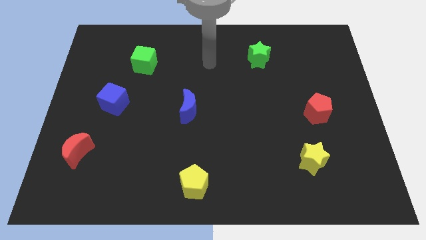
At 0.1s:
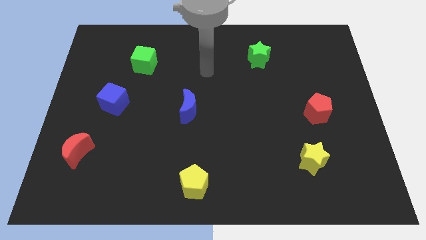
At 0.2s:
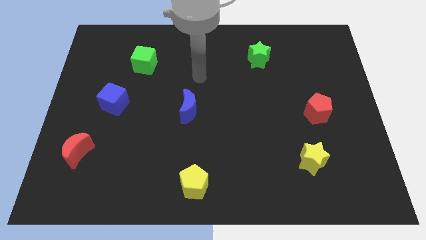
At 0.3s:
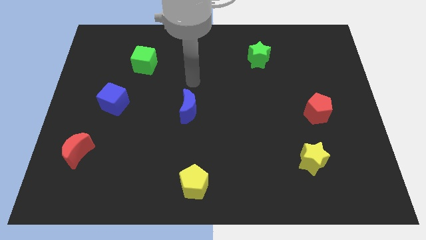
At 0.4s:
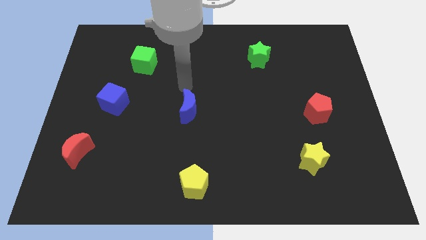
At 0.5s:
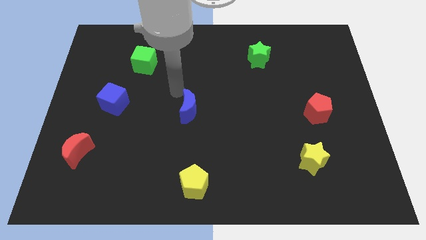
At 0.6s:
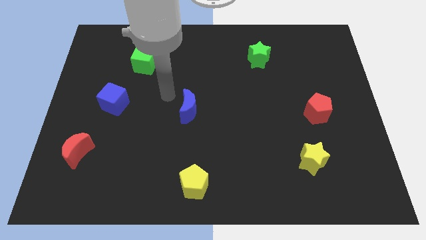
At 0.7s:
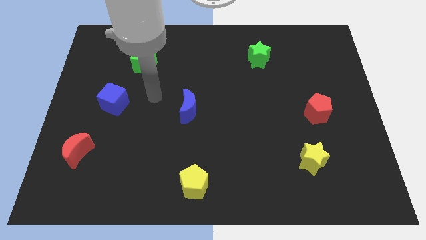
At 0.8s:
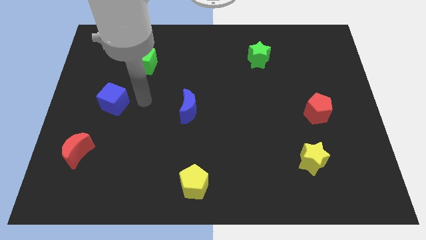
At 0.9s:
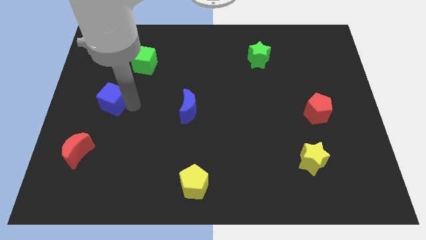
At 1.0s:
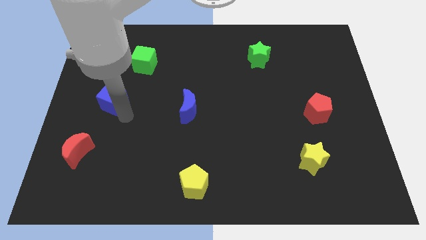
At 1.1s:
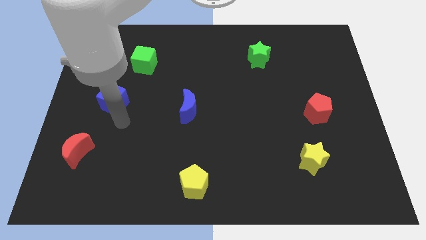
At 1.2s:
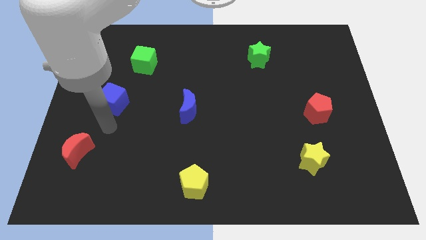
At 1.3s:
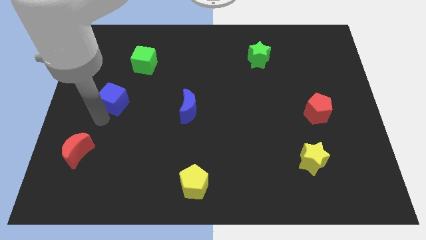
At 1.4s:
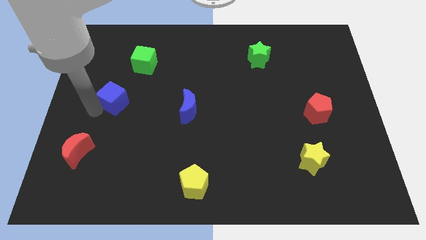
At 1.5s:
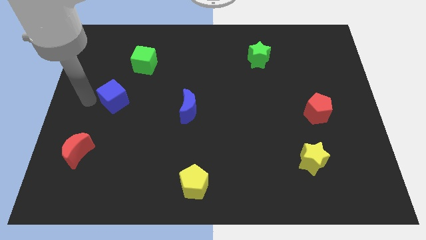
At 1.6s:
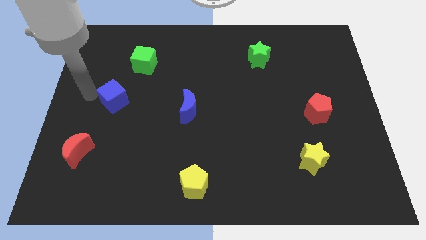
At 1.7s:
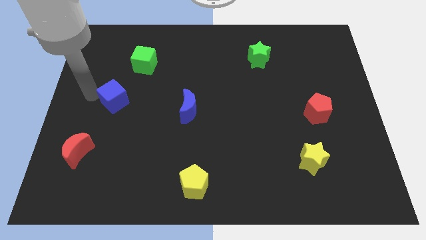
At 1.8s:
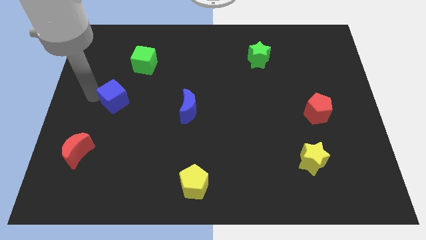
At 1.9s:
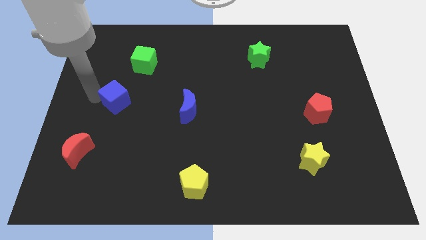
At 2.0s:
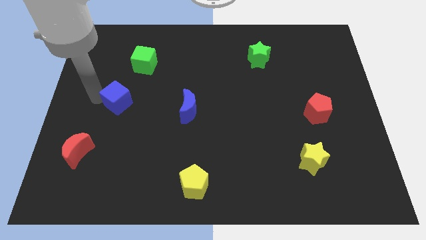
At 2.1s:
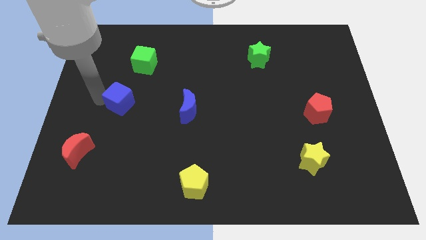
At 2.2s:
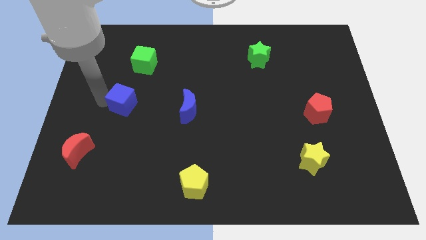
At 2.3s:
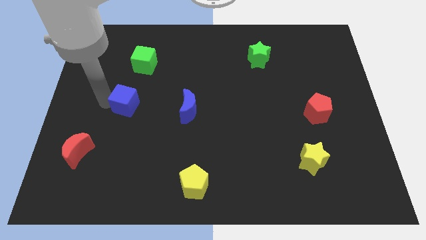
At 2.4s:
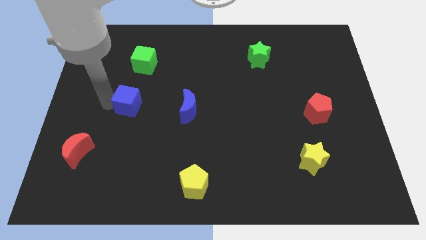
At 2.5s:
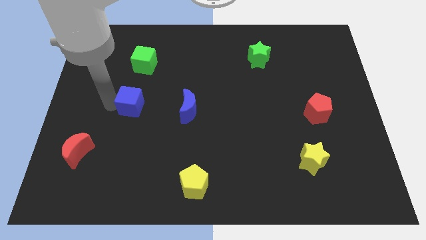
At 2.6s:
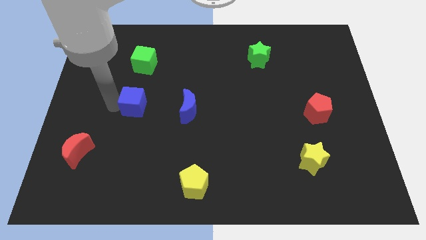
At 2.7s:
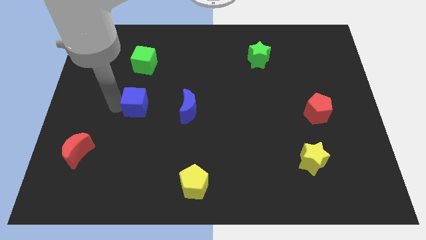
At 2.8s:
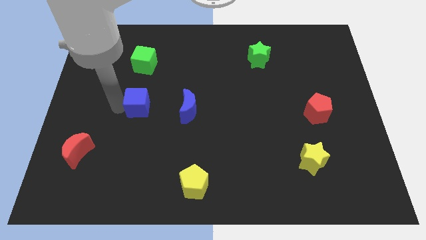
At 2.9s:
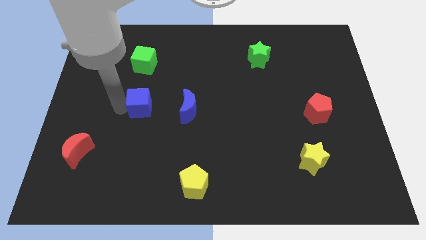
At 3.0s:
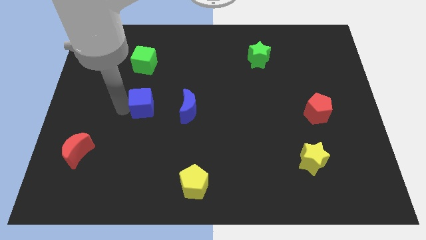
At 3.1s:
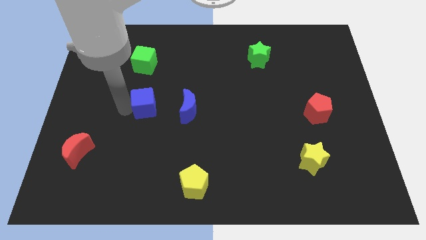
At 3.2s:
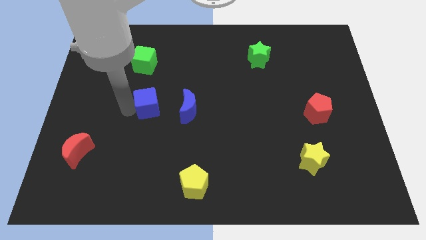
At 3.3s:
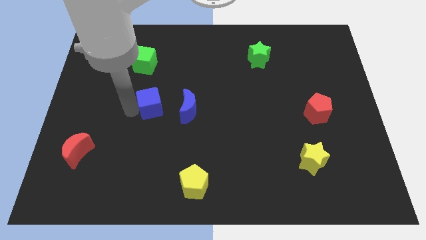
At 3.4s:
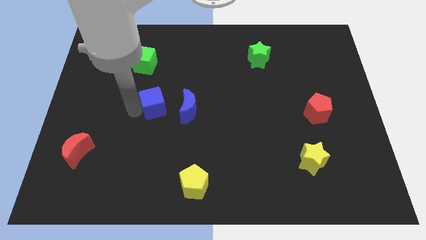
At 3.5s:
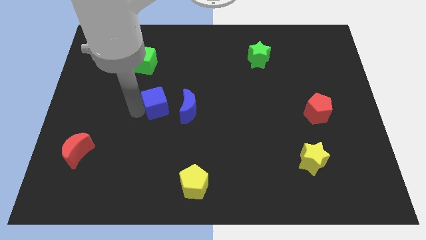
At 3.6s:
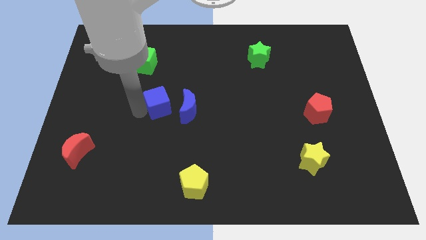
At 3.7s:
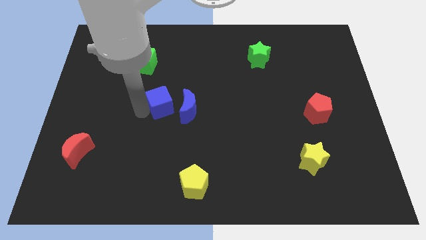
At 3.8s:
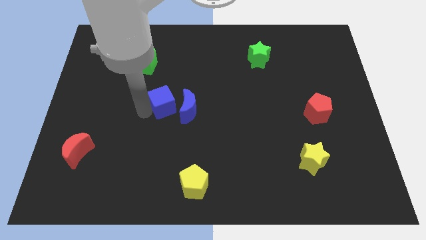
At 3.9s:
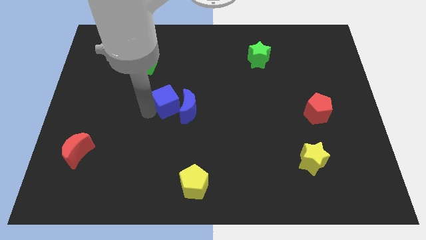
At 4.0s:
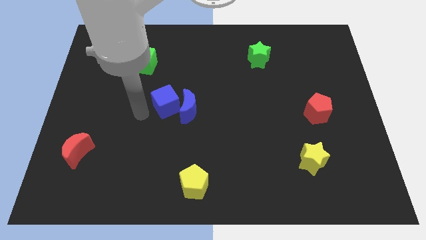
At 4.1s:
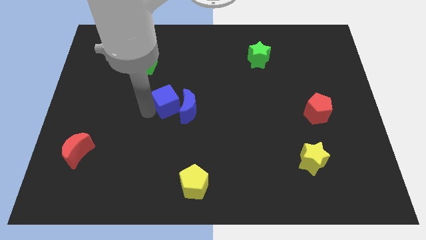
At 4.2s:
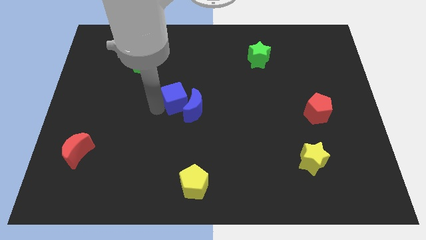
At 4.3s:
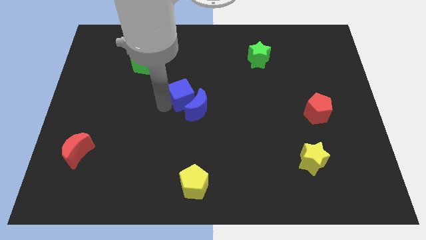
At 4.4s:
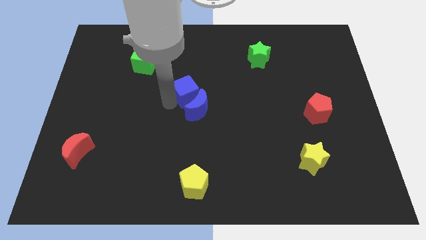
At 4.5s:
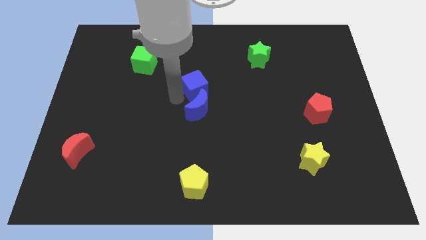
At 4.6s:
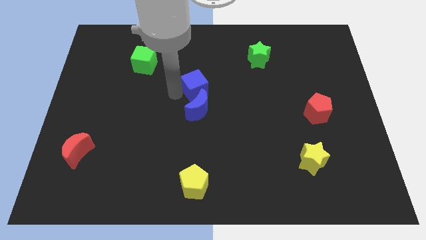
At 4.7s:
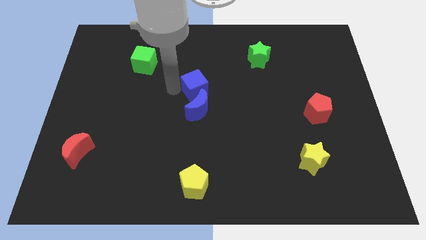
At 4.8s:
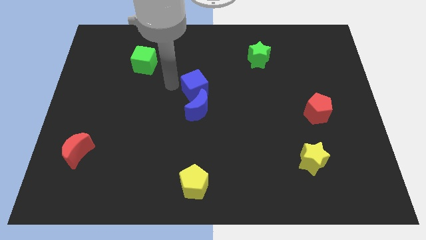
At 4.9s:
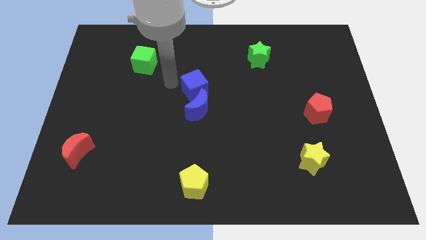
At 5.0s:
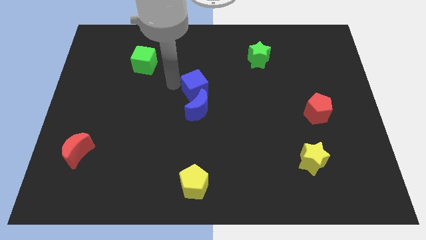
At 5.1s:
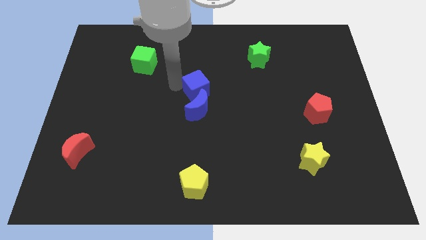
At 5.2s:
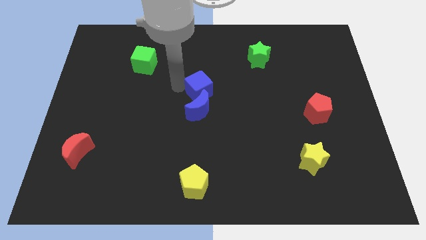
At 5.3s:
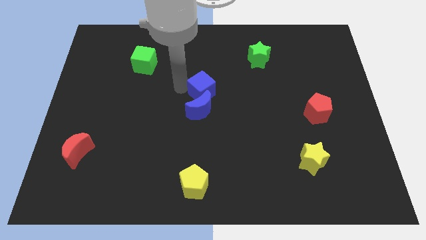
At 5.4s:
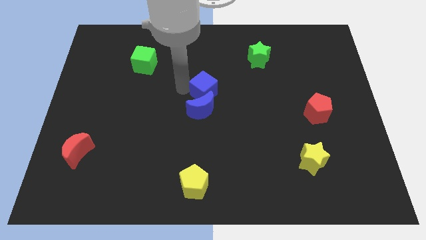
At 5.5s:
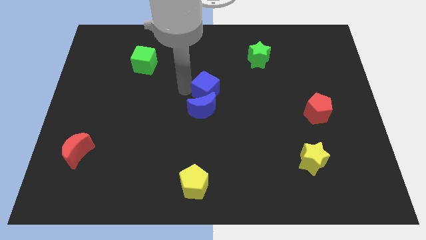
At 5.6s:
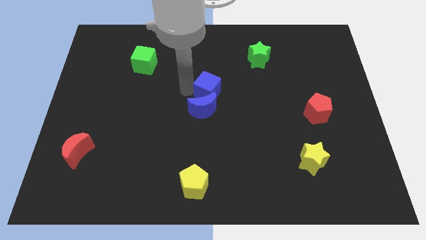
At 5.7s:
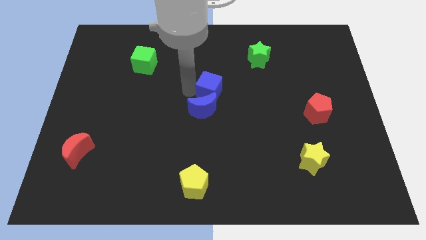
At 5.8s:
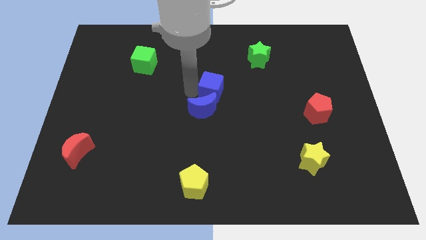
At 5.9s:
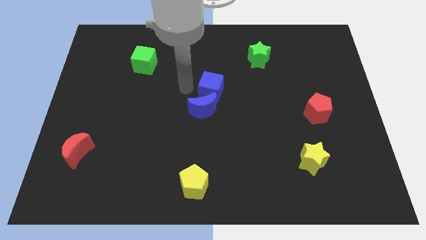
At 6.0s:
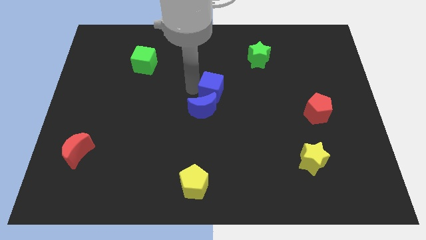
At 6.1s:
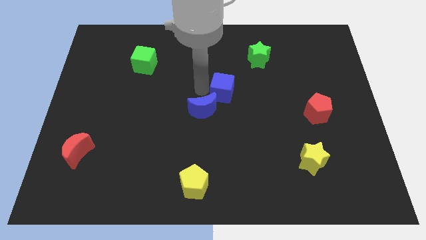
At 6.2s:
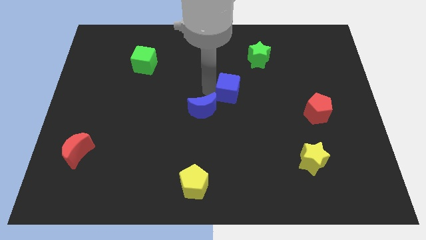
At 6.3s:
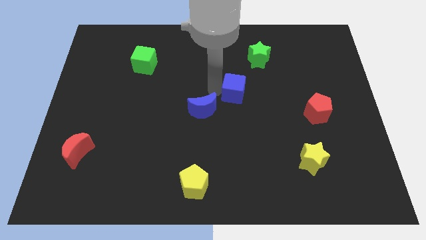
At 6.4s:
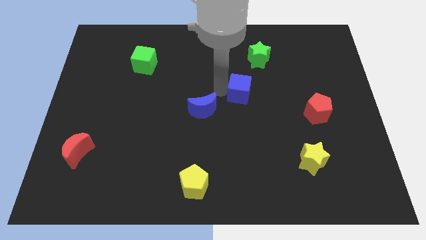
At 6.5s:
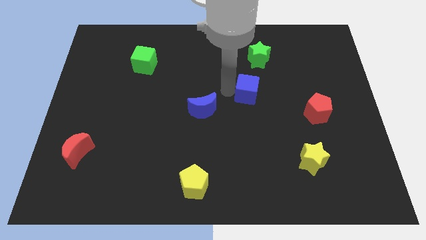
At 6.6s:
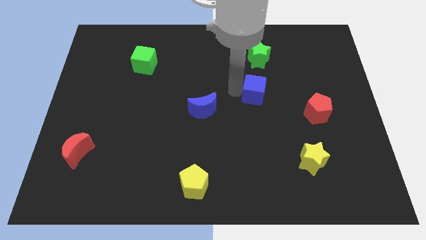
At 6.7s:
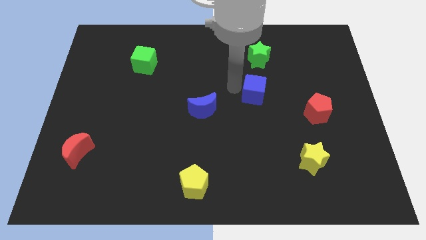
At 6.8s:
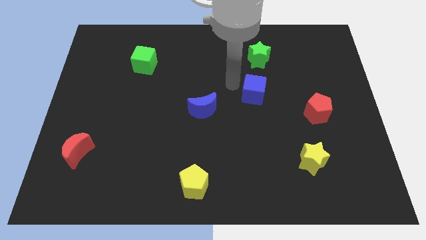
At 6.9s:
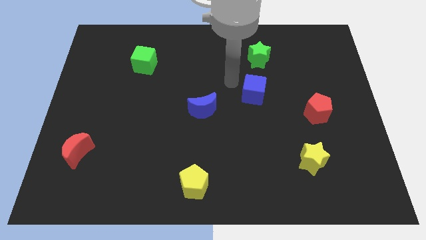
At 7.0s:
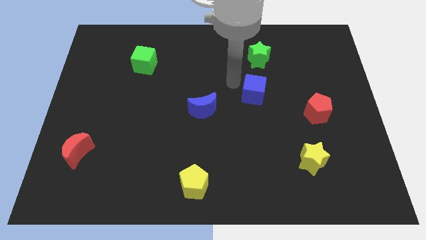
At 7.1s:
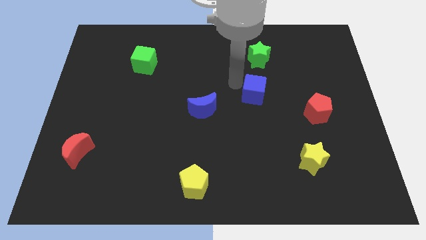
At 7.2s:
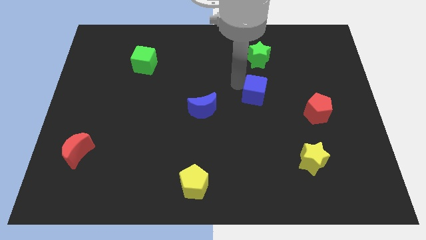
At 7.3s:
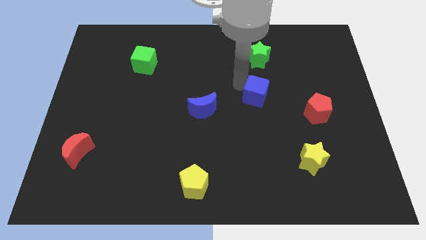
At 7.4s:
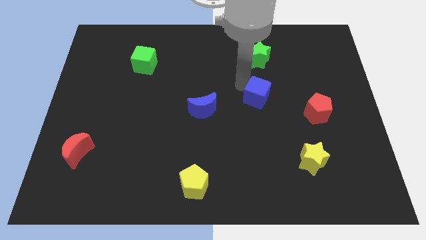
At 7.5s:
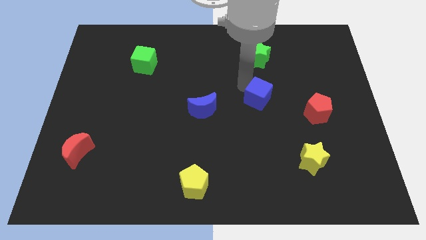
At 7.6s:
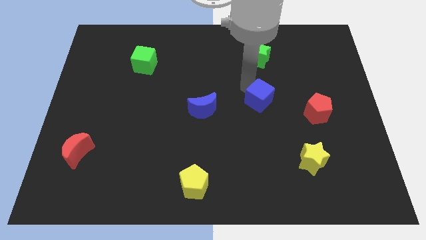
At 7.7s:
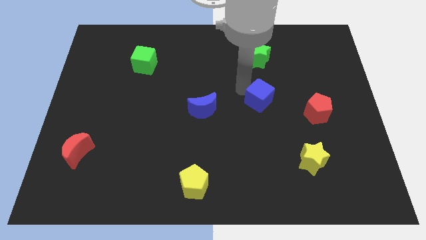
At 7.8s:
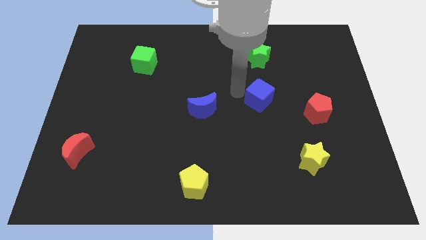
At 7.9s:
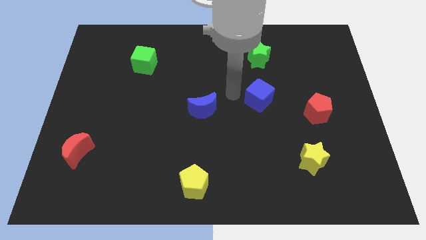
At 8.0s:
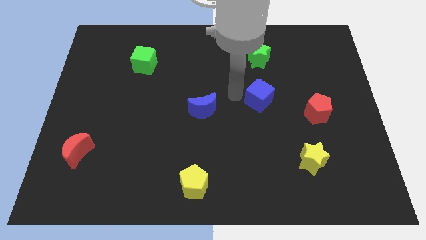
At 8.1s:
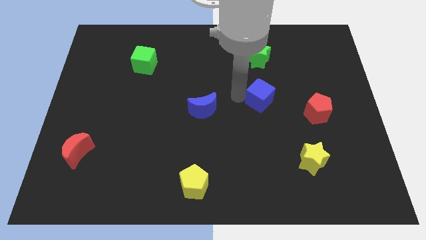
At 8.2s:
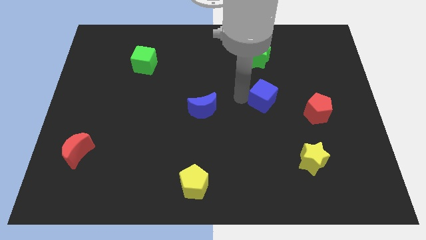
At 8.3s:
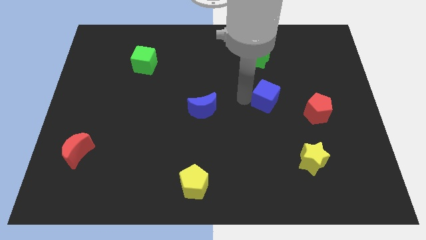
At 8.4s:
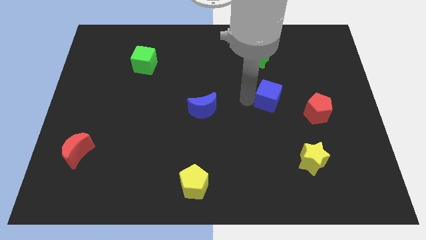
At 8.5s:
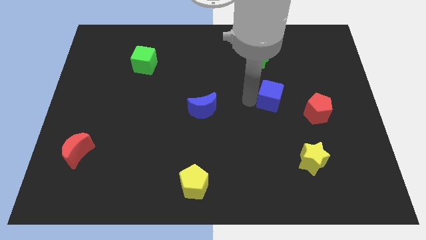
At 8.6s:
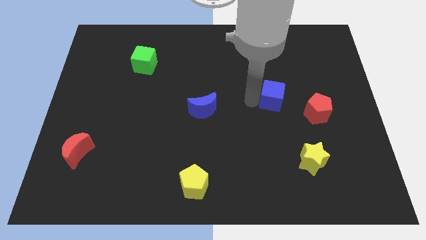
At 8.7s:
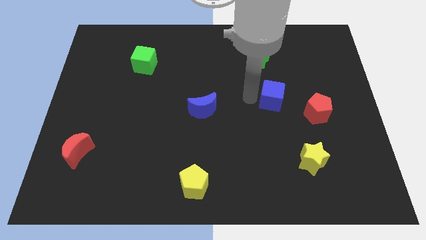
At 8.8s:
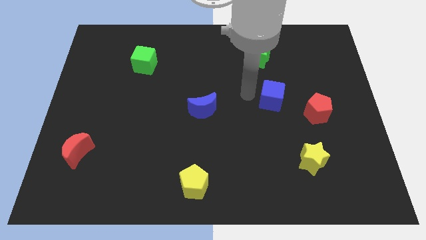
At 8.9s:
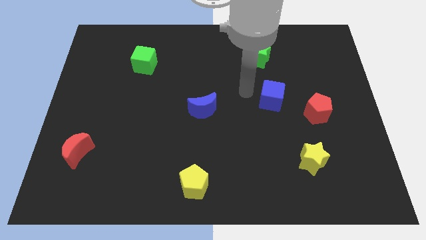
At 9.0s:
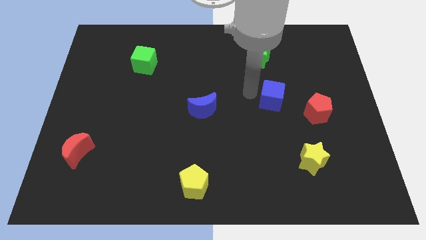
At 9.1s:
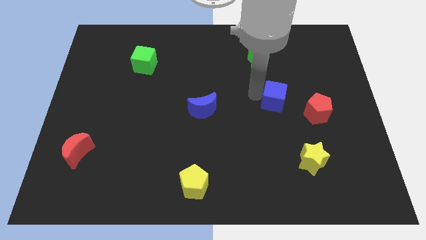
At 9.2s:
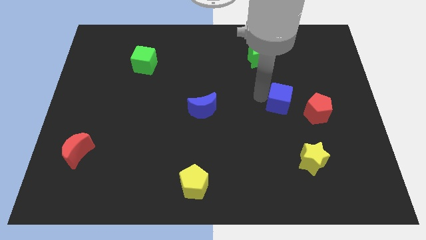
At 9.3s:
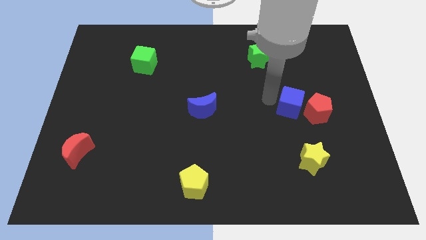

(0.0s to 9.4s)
put the blue cube next to the red pentagon
